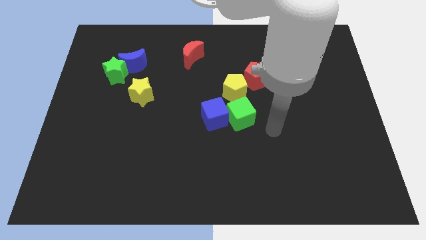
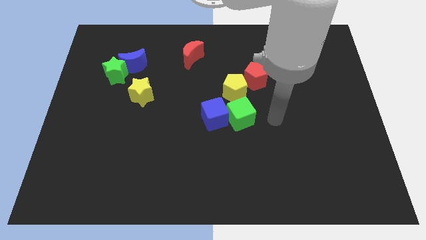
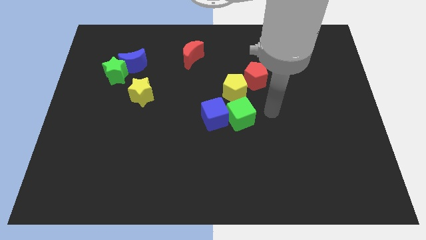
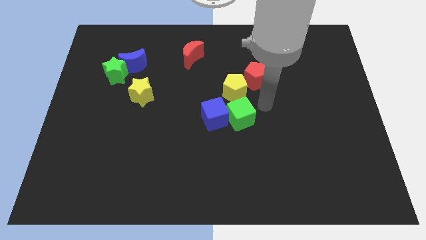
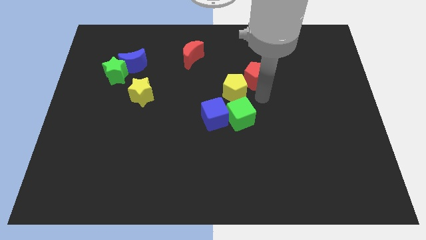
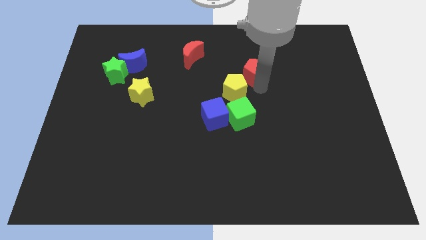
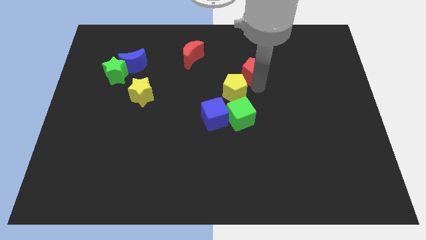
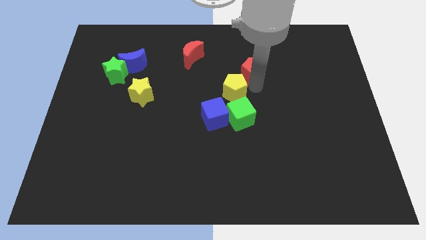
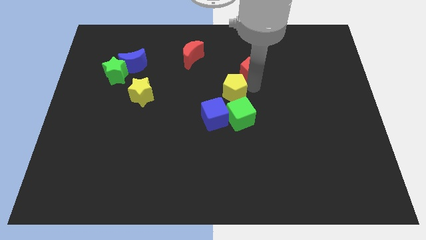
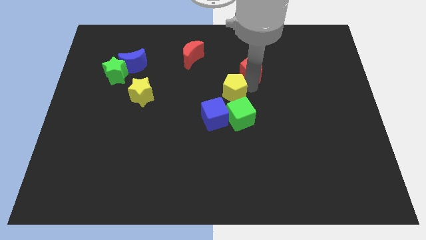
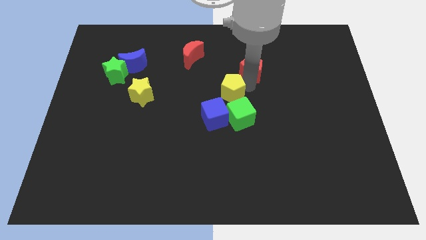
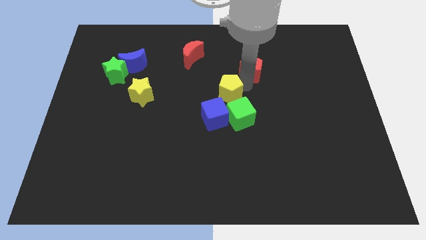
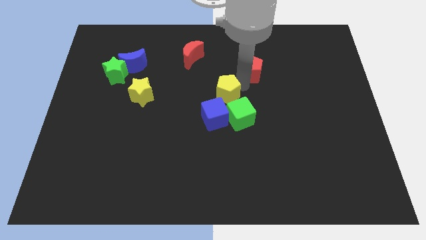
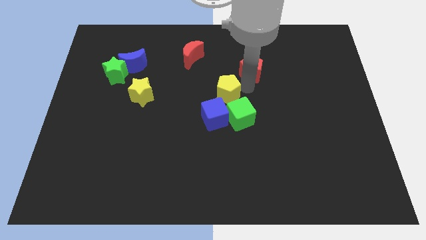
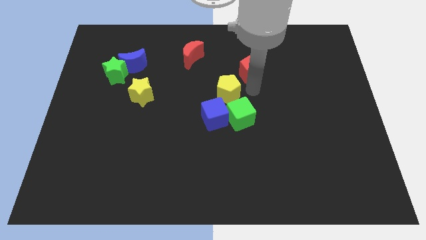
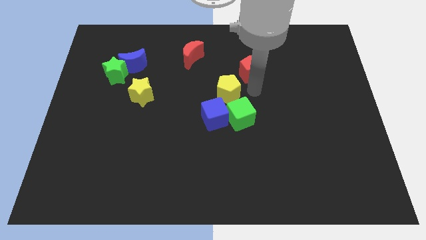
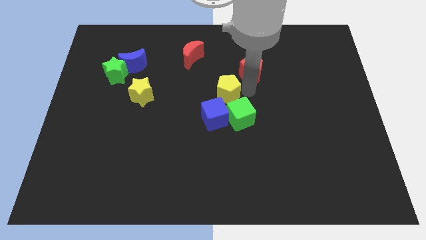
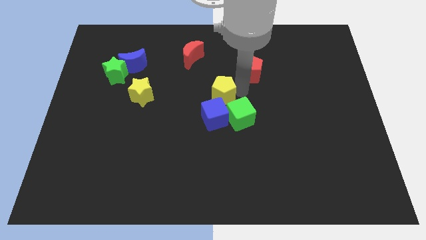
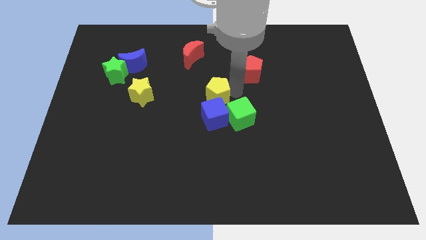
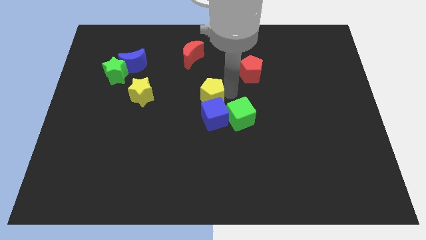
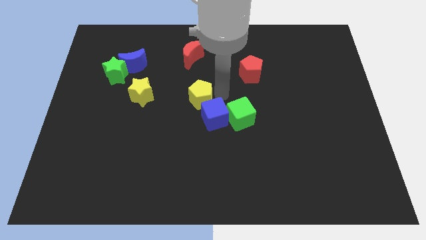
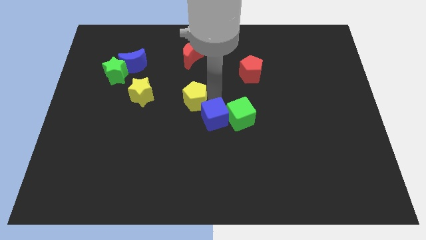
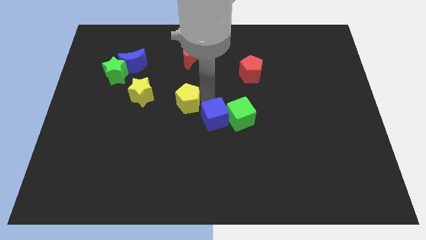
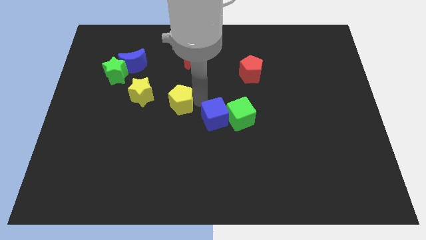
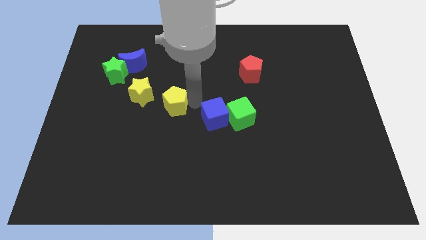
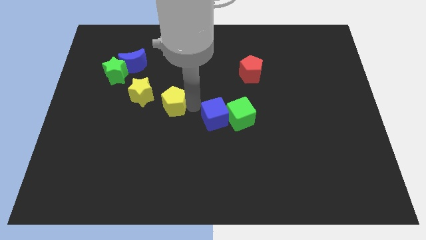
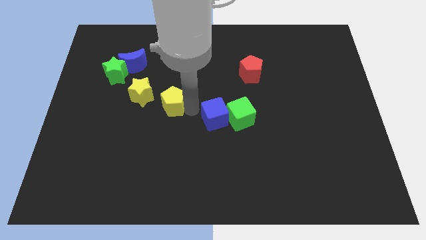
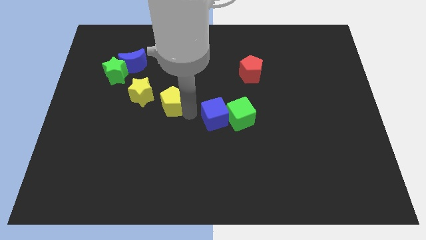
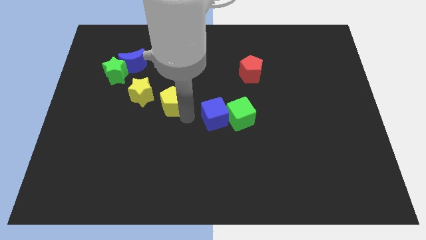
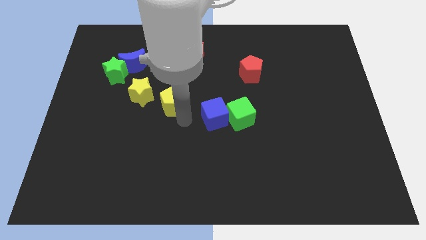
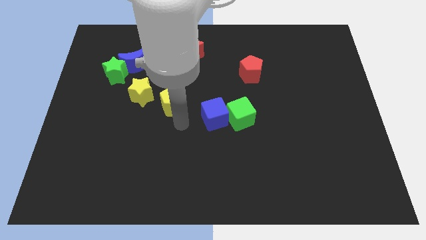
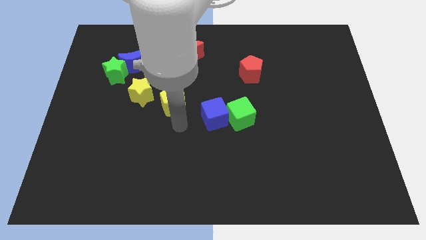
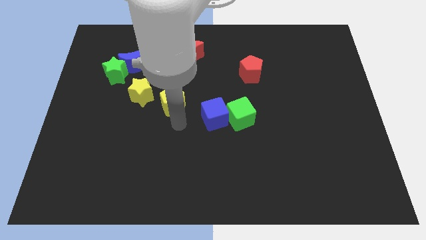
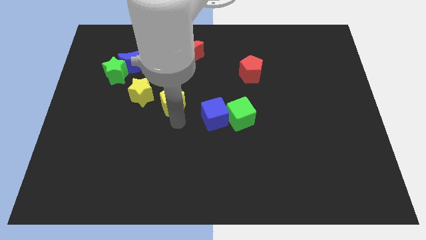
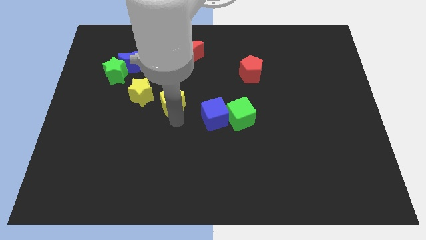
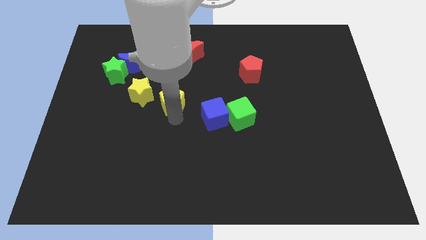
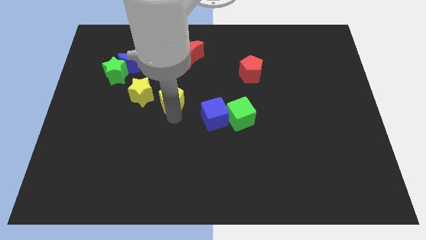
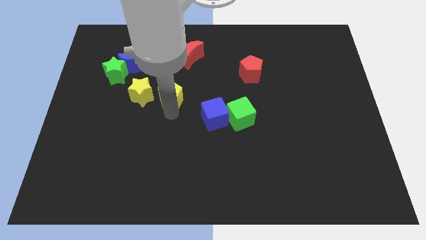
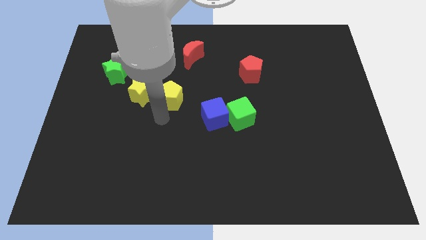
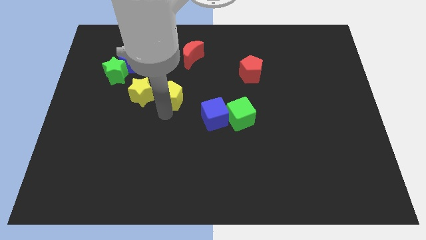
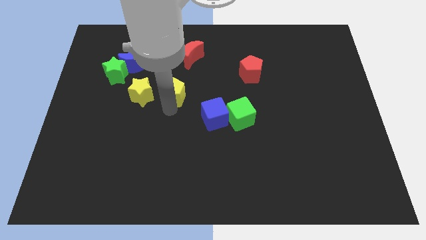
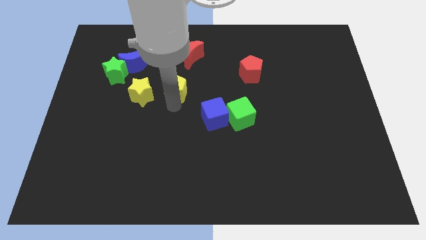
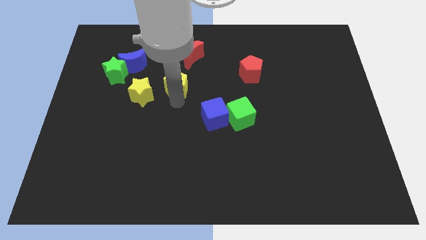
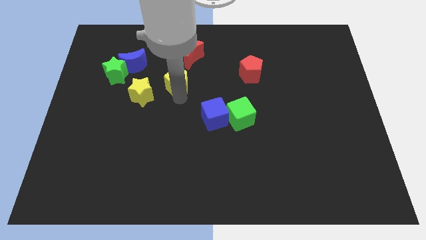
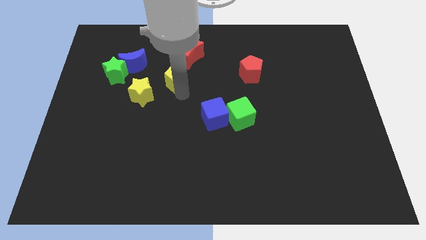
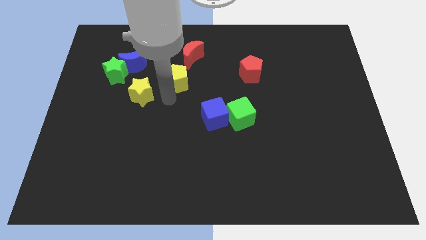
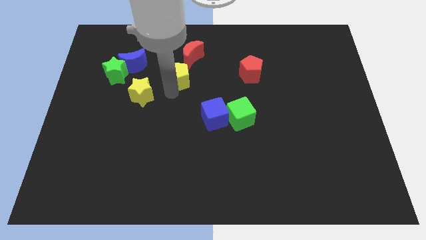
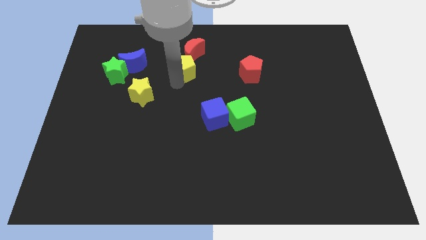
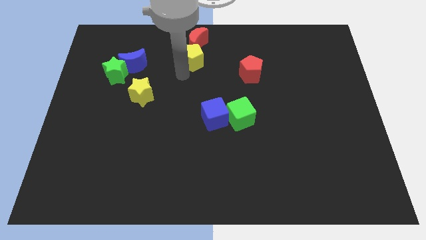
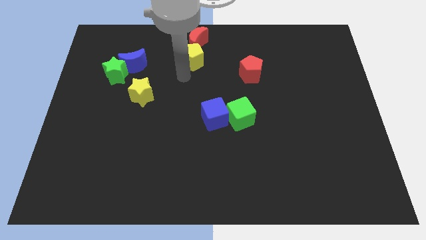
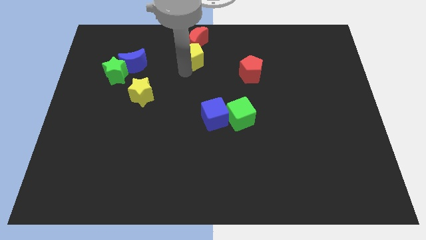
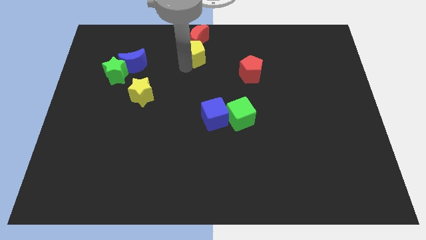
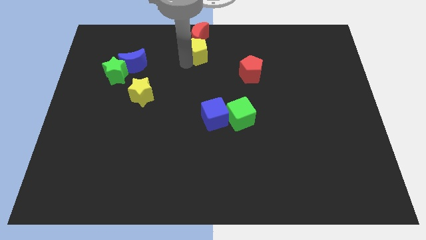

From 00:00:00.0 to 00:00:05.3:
move the yellow pentagon to the top

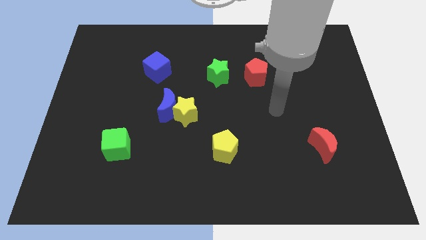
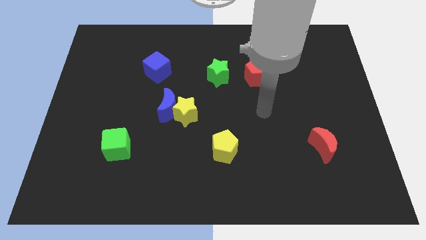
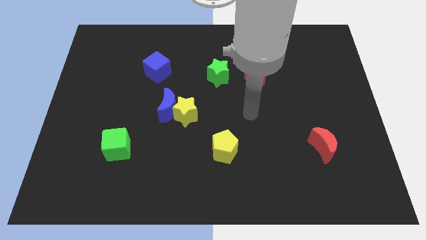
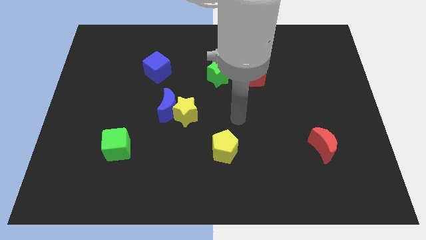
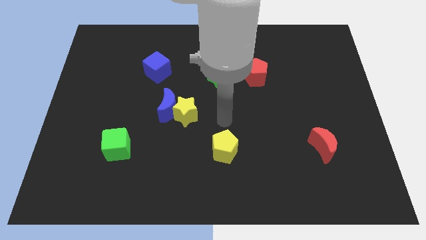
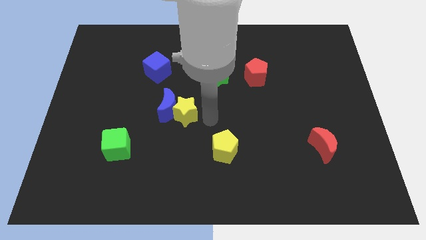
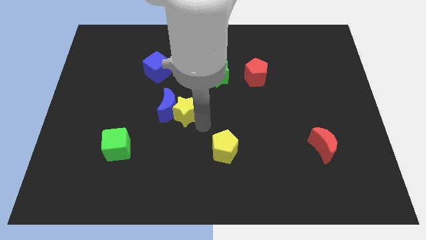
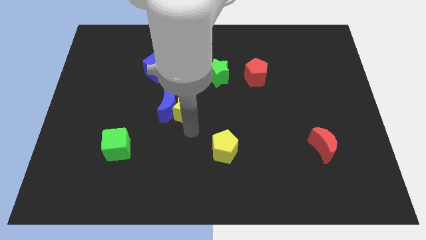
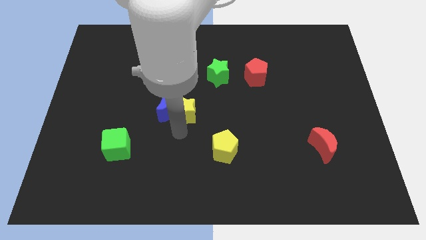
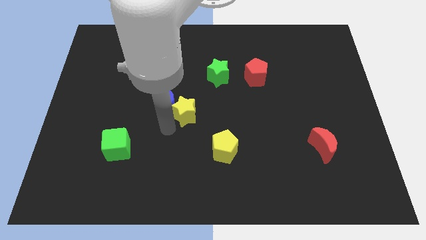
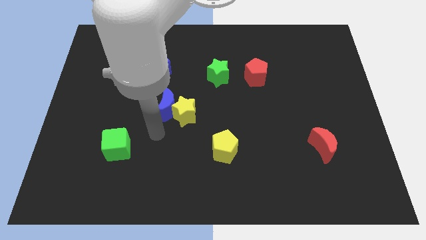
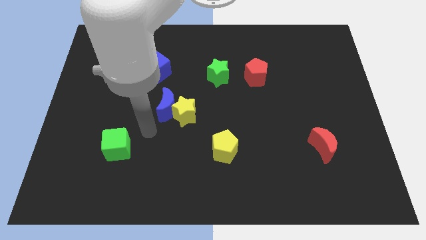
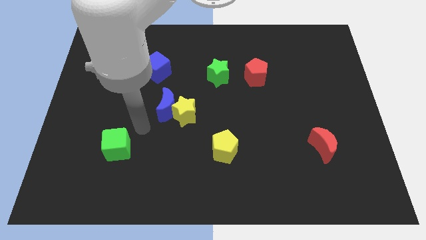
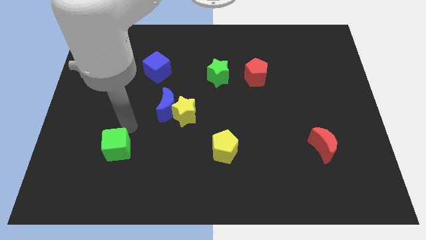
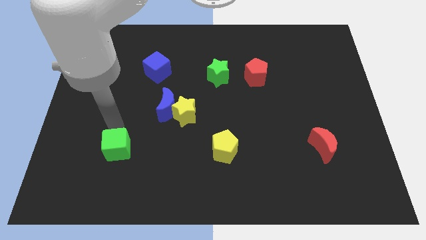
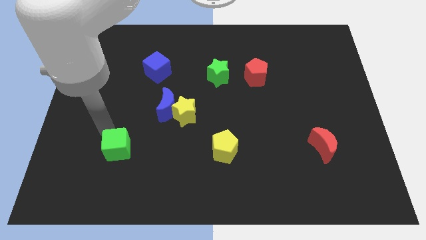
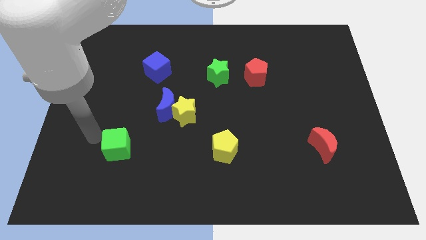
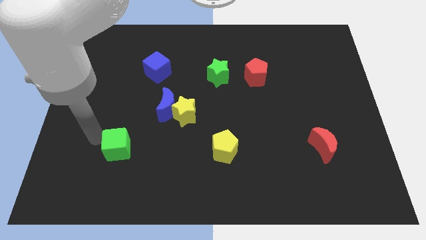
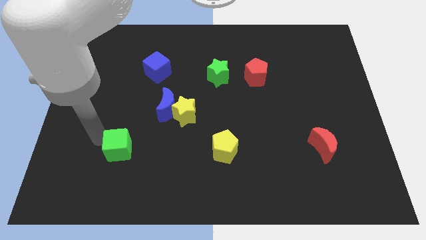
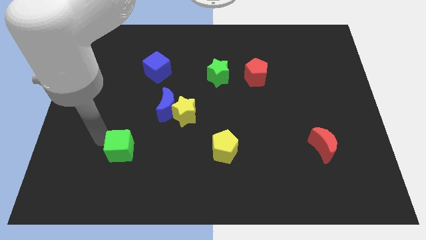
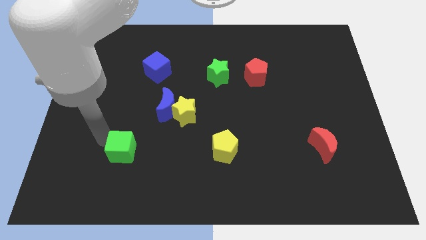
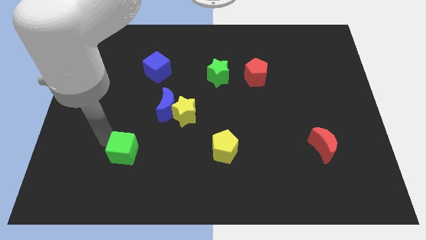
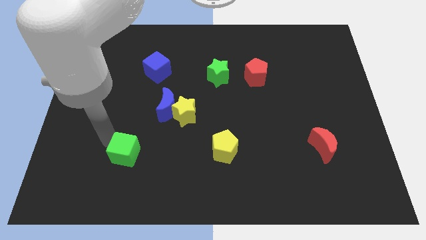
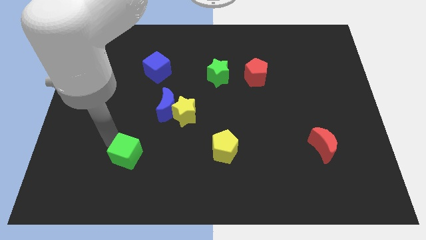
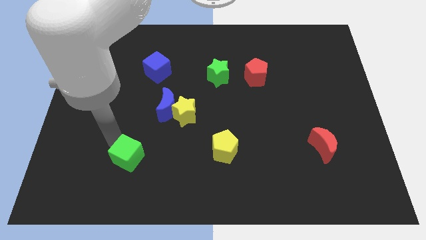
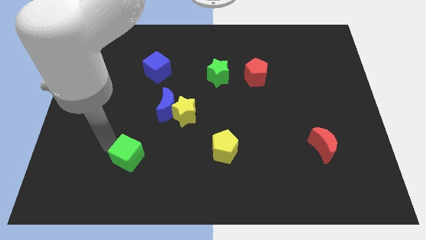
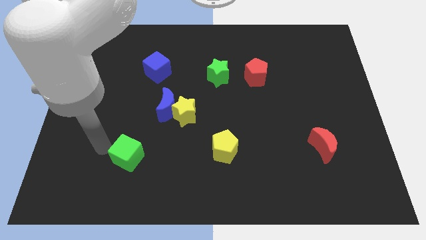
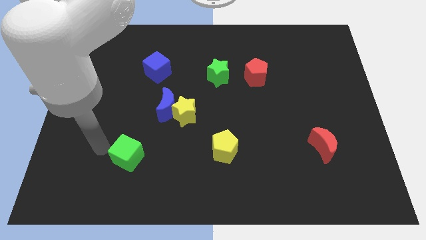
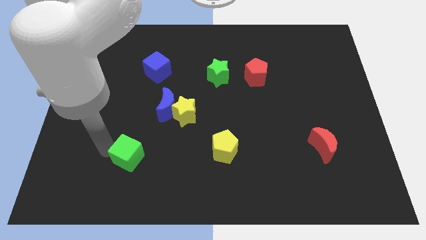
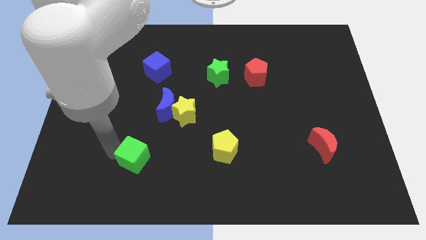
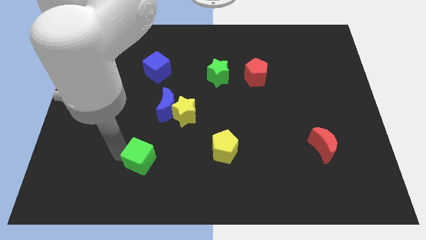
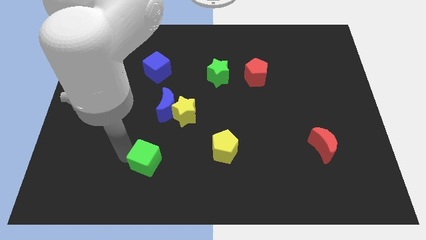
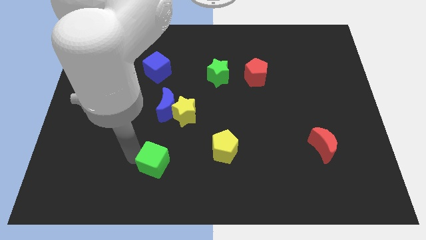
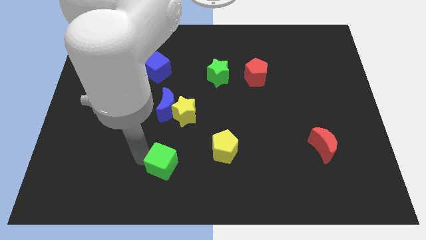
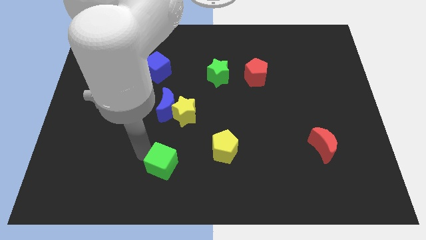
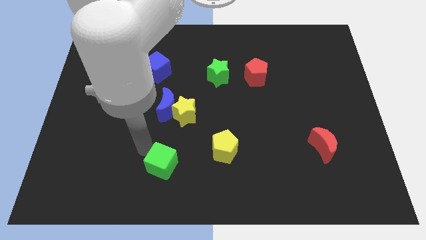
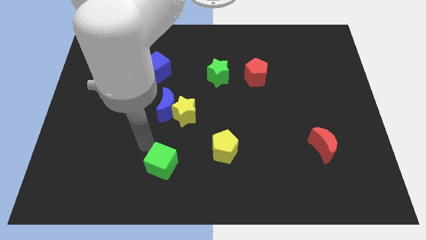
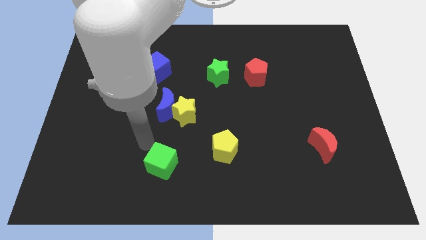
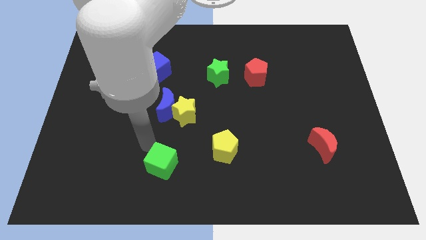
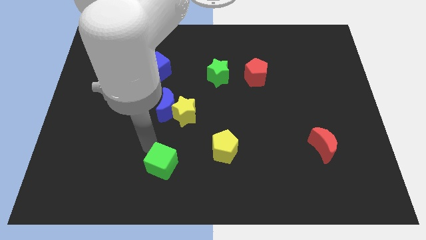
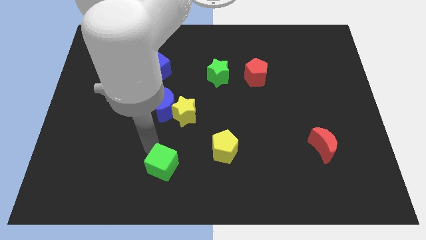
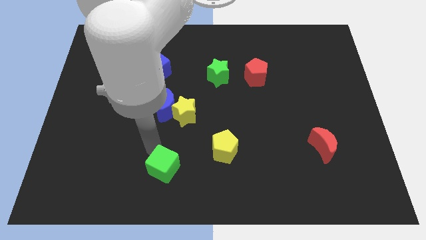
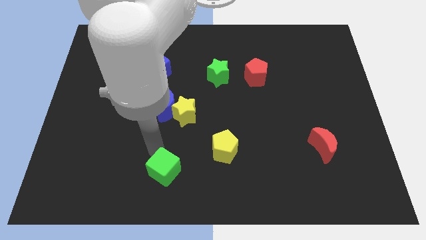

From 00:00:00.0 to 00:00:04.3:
slide the green cube to the bottom side
